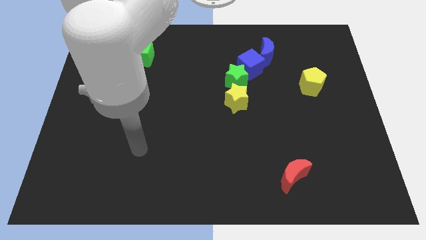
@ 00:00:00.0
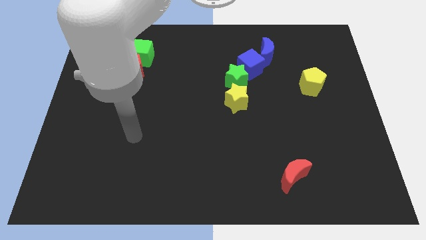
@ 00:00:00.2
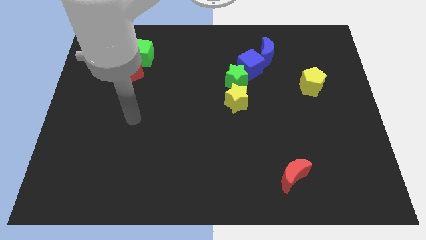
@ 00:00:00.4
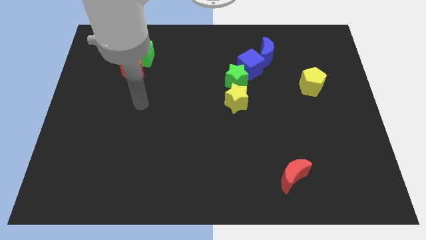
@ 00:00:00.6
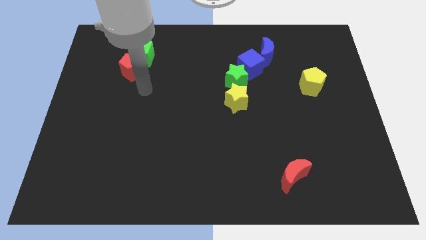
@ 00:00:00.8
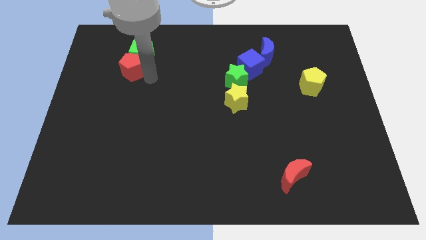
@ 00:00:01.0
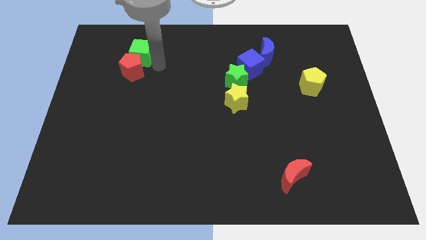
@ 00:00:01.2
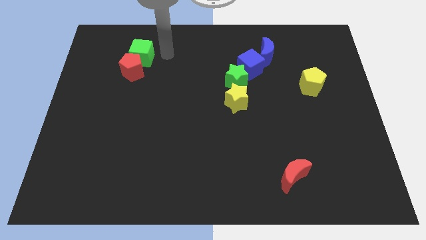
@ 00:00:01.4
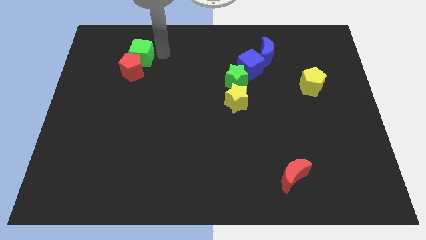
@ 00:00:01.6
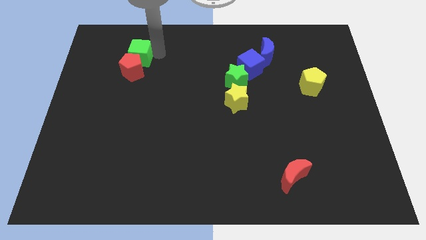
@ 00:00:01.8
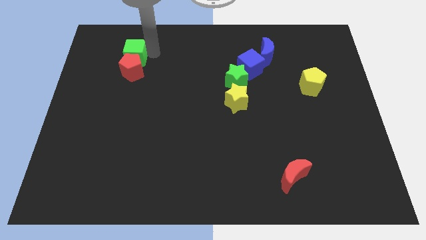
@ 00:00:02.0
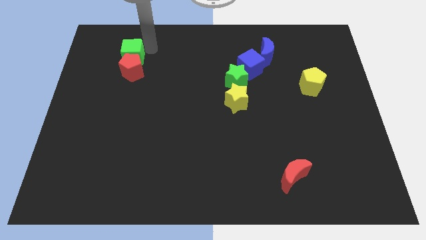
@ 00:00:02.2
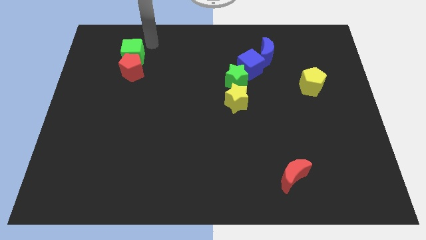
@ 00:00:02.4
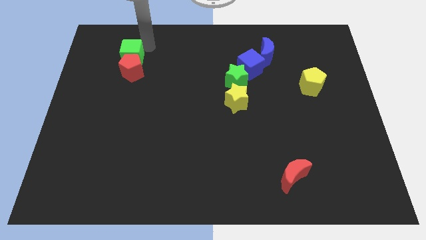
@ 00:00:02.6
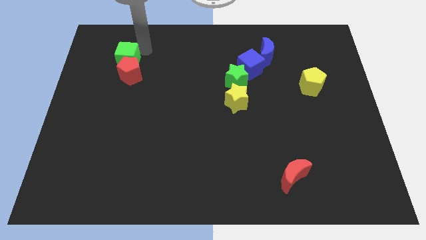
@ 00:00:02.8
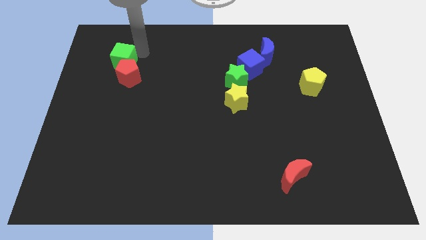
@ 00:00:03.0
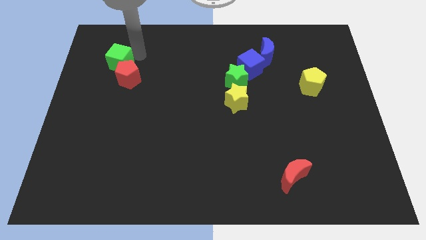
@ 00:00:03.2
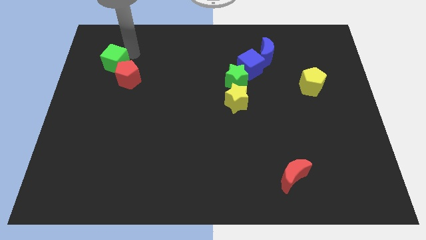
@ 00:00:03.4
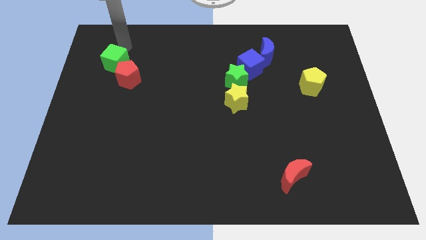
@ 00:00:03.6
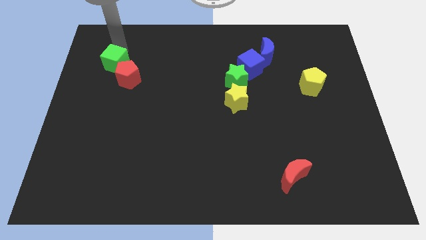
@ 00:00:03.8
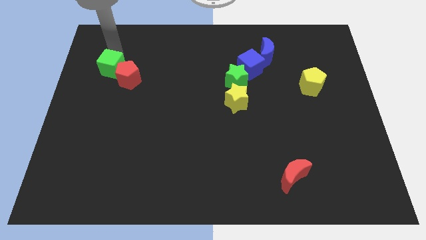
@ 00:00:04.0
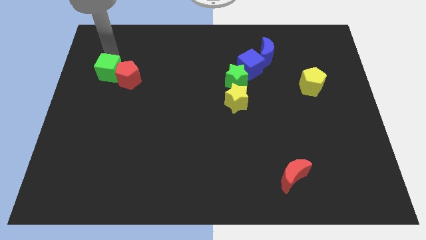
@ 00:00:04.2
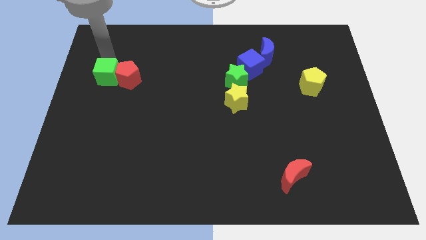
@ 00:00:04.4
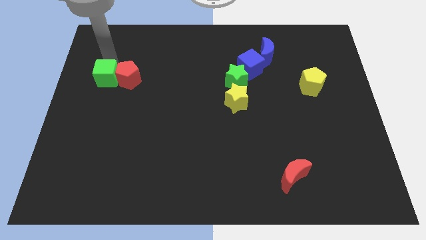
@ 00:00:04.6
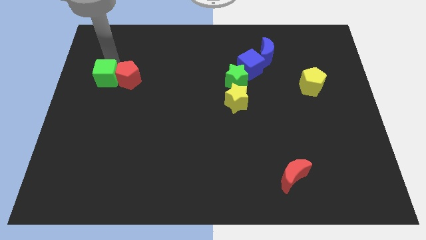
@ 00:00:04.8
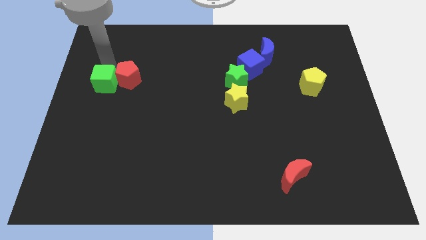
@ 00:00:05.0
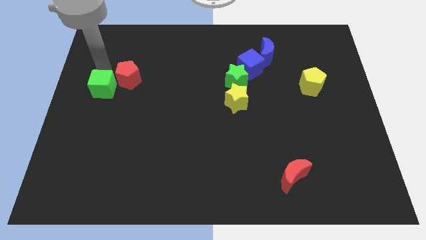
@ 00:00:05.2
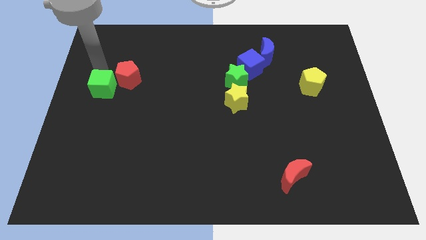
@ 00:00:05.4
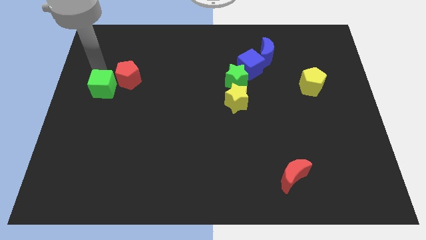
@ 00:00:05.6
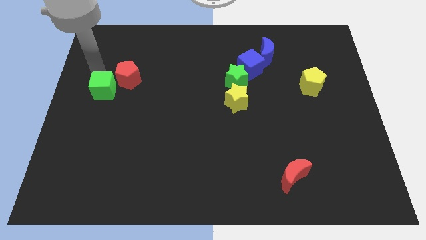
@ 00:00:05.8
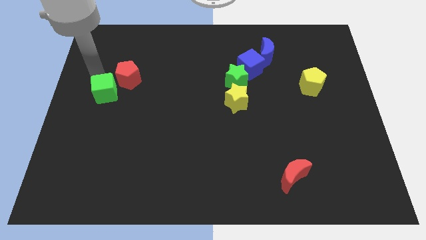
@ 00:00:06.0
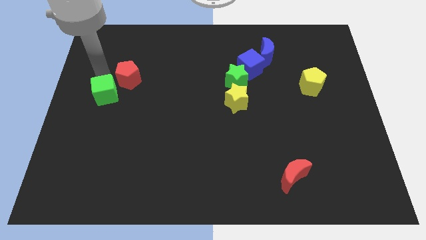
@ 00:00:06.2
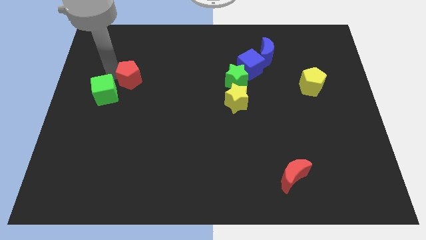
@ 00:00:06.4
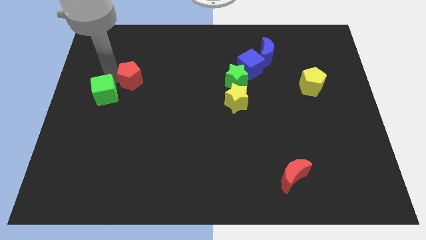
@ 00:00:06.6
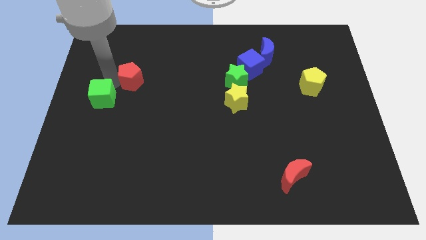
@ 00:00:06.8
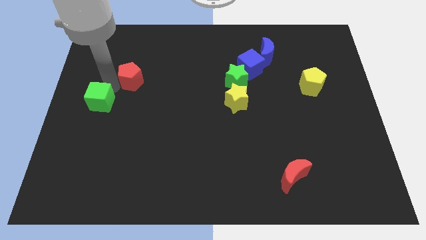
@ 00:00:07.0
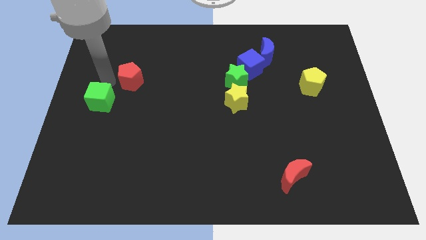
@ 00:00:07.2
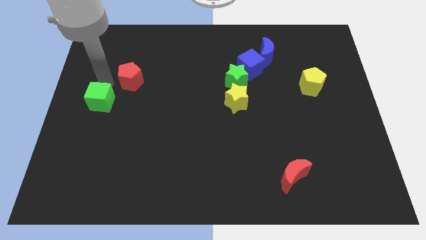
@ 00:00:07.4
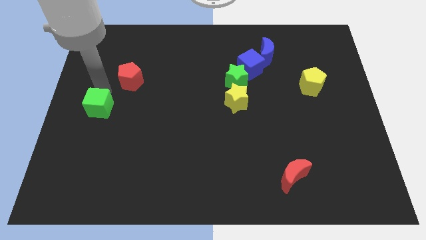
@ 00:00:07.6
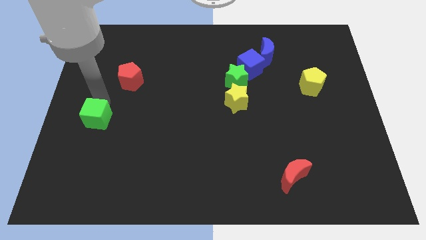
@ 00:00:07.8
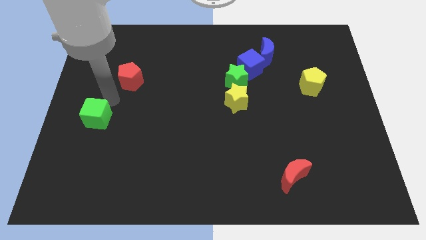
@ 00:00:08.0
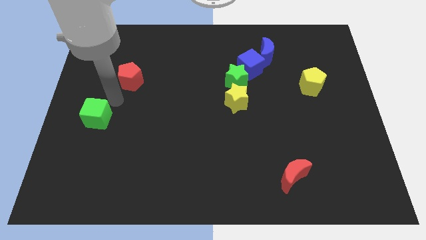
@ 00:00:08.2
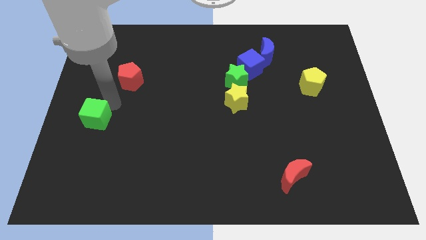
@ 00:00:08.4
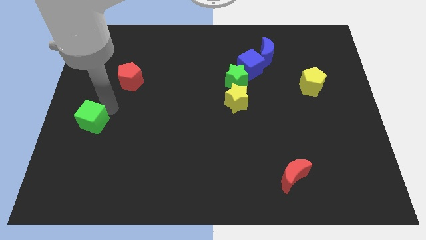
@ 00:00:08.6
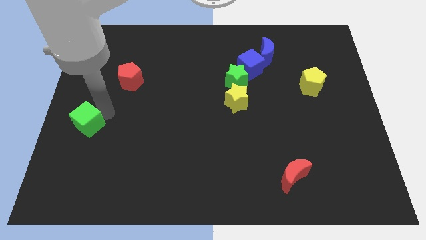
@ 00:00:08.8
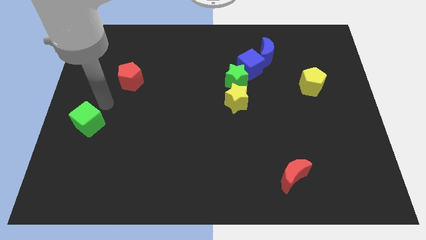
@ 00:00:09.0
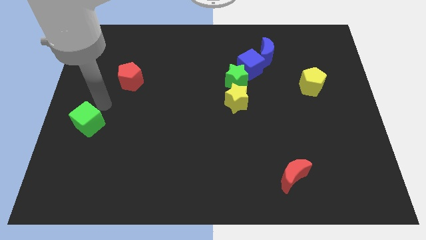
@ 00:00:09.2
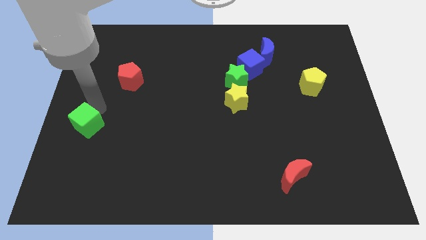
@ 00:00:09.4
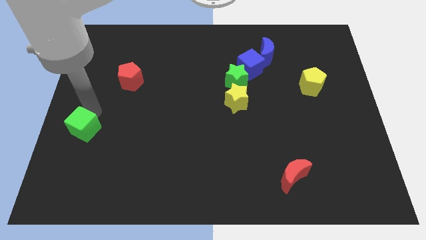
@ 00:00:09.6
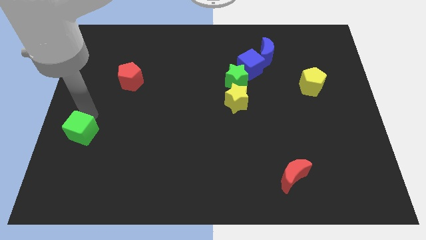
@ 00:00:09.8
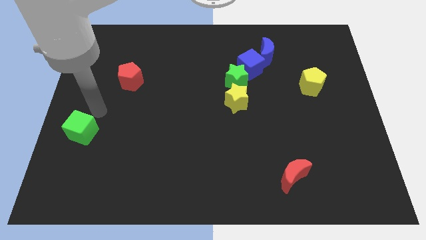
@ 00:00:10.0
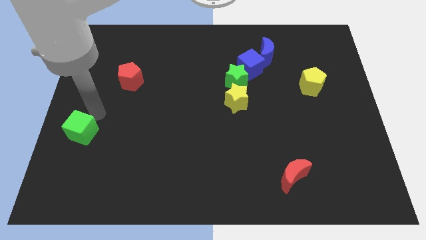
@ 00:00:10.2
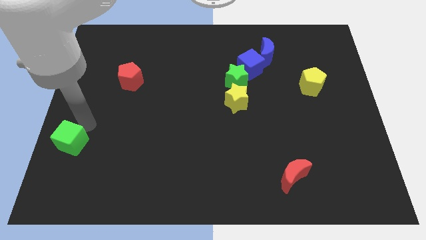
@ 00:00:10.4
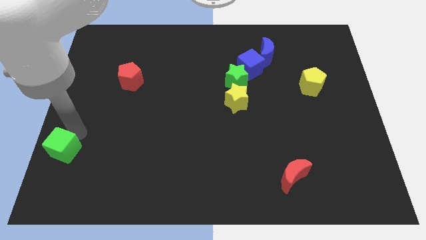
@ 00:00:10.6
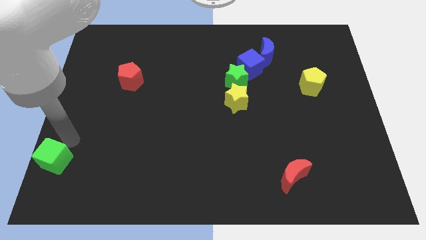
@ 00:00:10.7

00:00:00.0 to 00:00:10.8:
slide the green cube to the lower left corner
